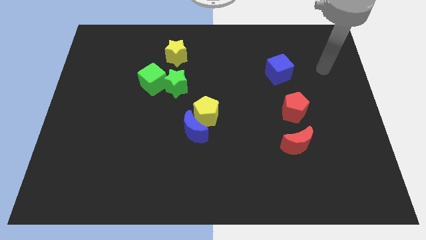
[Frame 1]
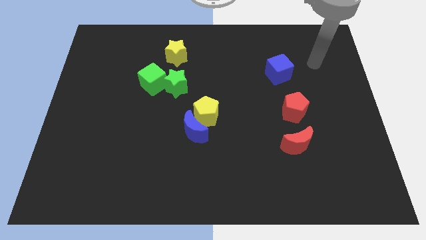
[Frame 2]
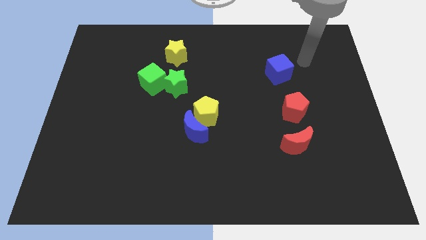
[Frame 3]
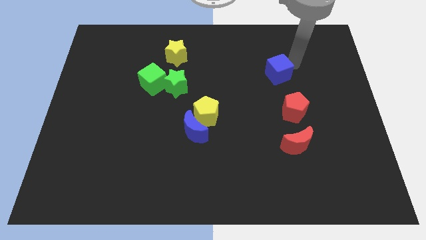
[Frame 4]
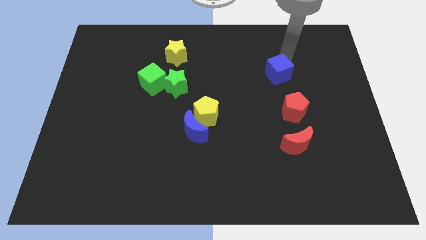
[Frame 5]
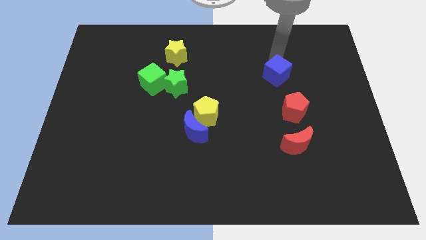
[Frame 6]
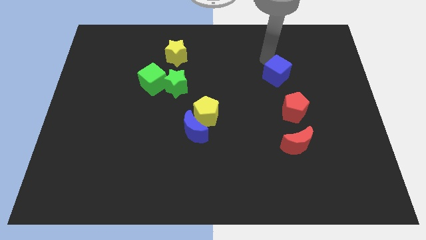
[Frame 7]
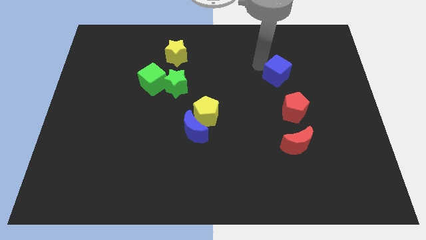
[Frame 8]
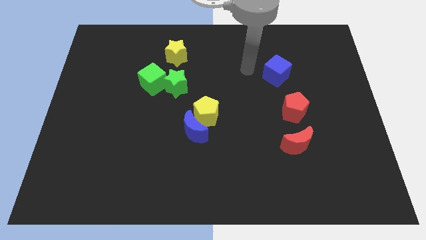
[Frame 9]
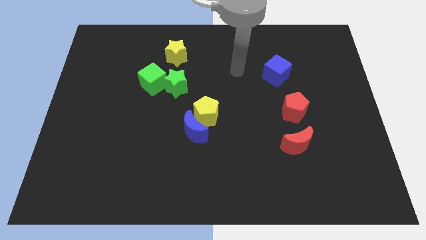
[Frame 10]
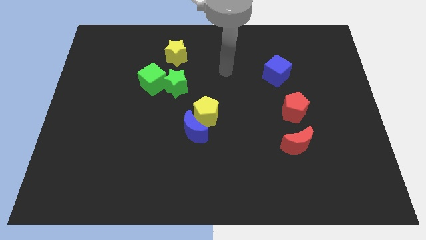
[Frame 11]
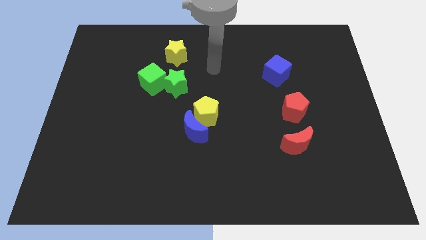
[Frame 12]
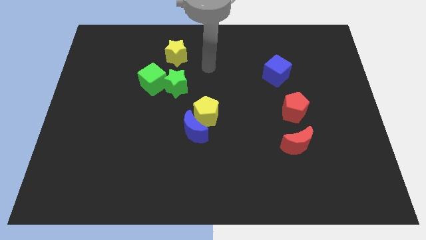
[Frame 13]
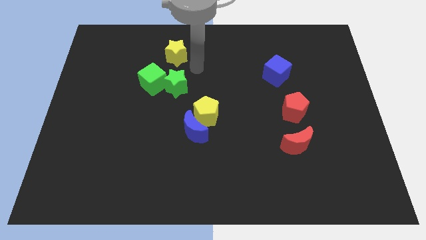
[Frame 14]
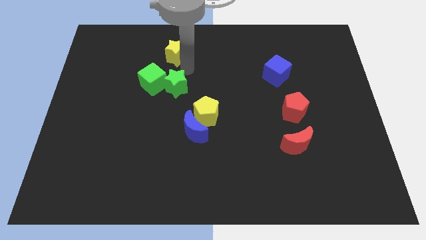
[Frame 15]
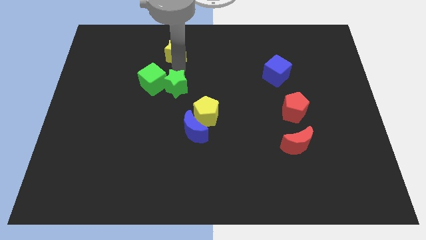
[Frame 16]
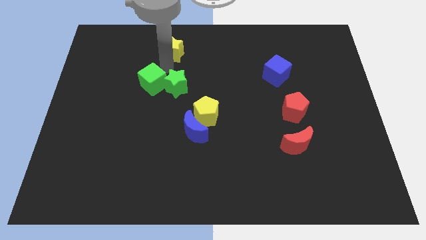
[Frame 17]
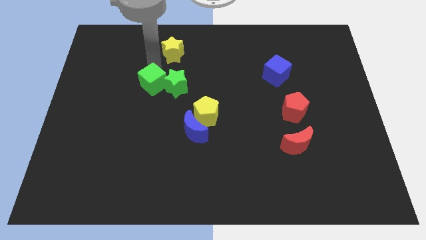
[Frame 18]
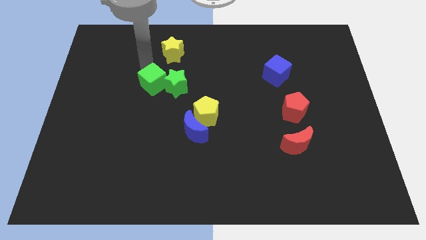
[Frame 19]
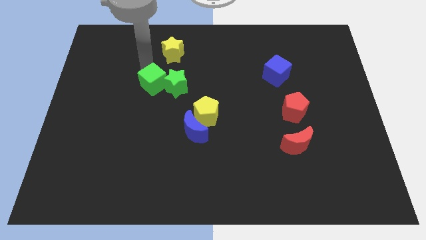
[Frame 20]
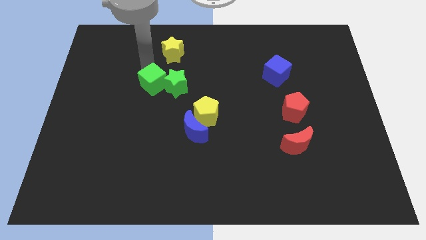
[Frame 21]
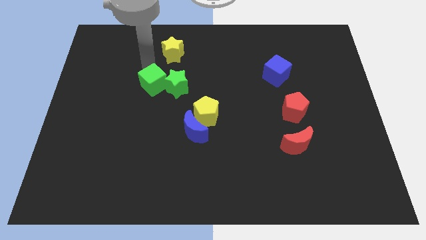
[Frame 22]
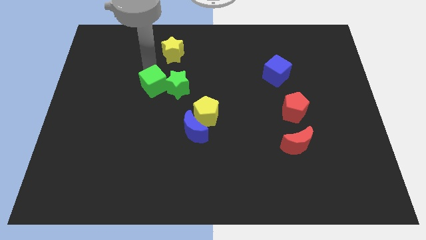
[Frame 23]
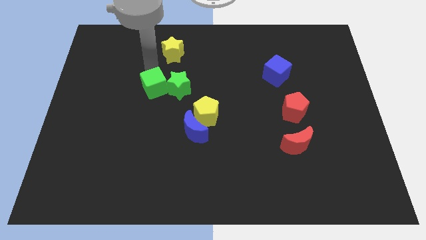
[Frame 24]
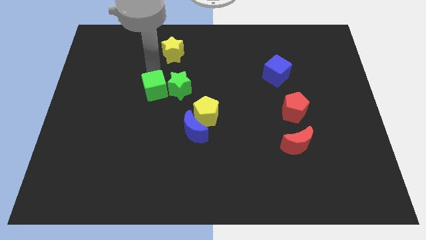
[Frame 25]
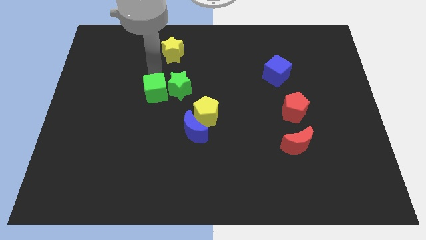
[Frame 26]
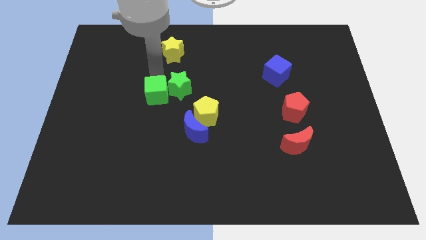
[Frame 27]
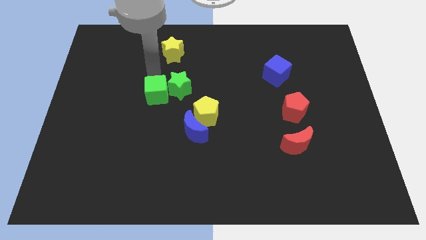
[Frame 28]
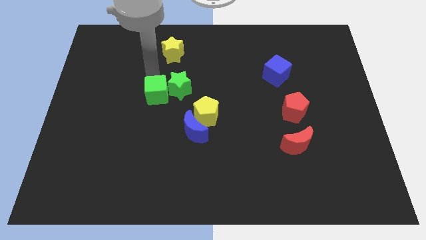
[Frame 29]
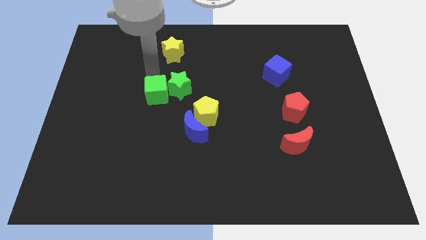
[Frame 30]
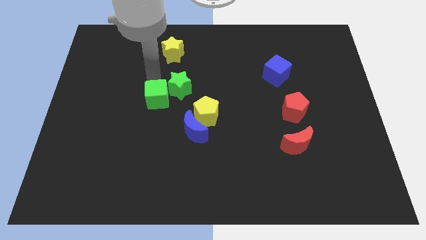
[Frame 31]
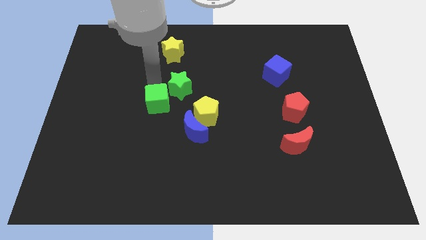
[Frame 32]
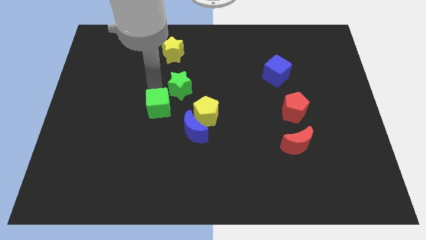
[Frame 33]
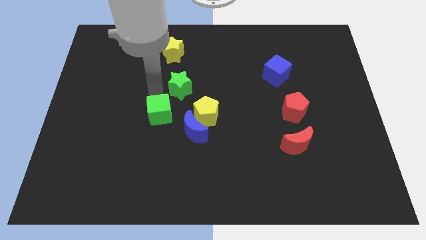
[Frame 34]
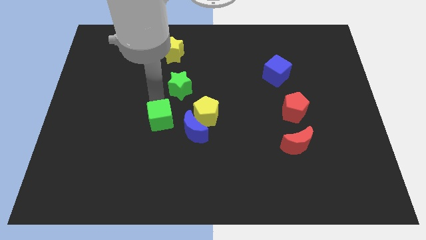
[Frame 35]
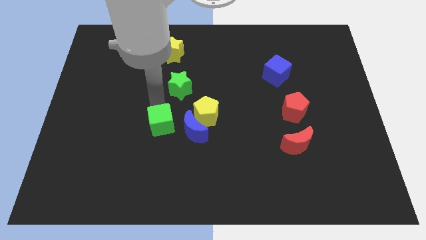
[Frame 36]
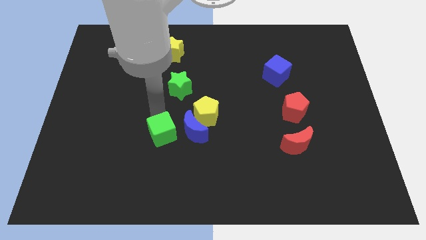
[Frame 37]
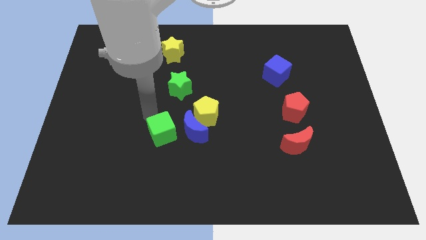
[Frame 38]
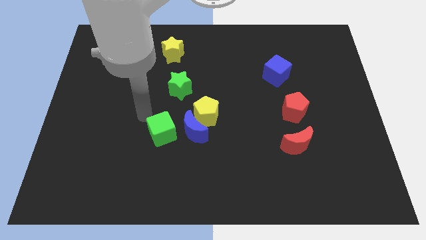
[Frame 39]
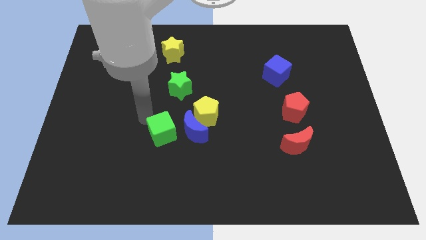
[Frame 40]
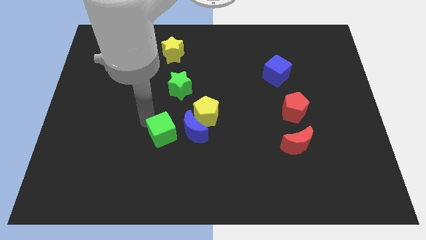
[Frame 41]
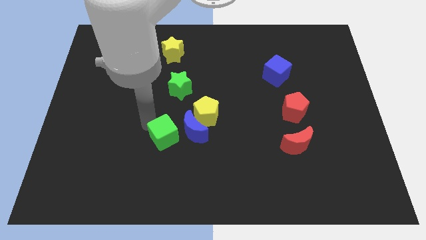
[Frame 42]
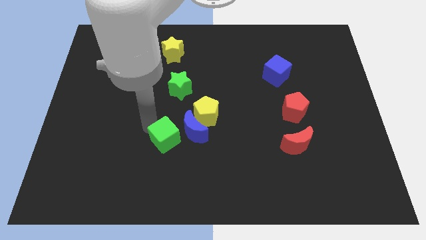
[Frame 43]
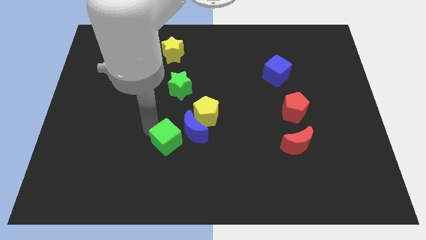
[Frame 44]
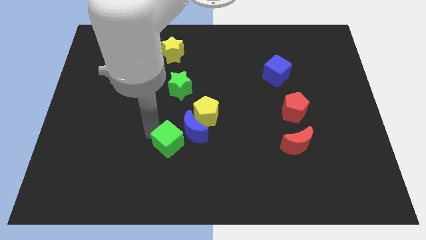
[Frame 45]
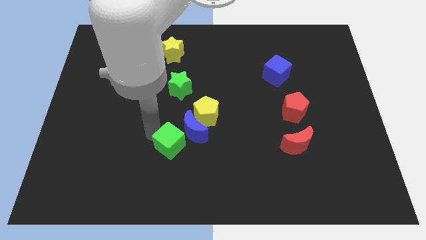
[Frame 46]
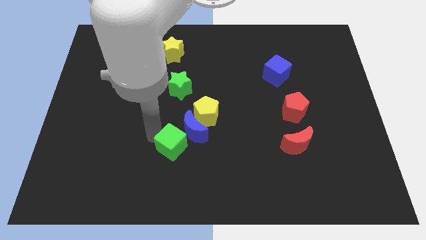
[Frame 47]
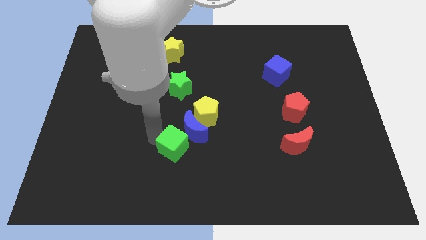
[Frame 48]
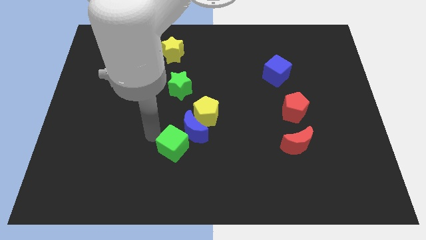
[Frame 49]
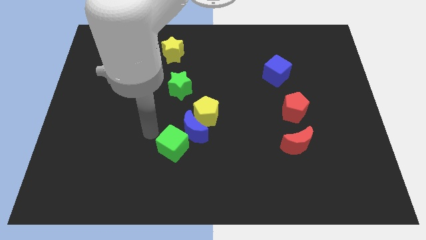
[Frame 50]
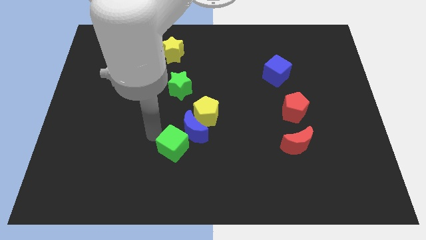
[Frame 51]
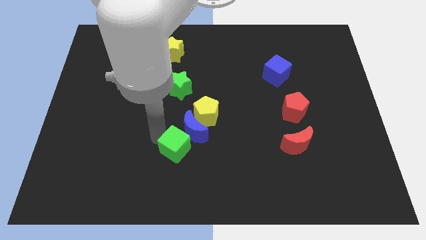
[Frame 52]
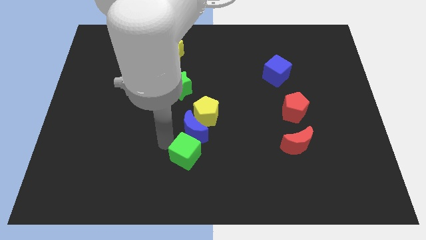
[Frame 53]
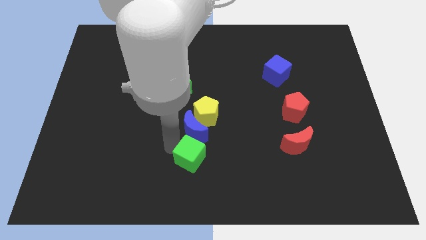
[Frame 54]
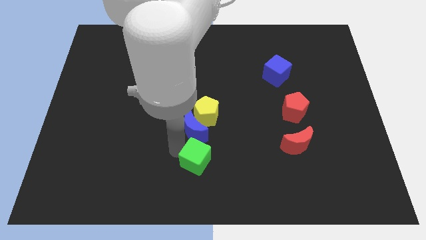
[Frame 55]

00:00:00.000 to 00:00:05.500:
push the green cube downwards and right

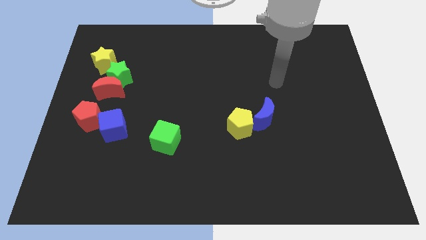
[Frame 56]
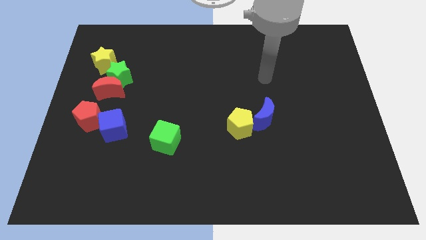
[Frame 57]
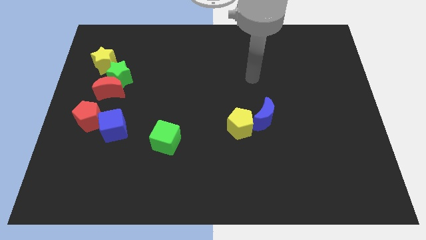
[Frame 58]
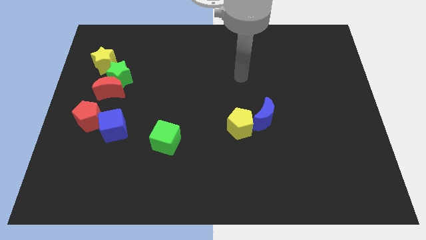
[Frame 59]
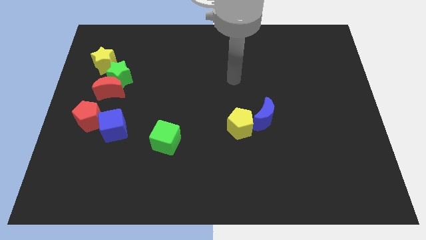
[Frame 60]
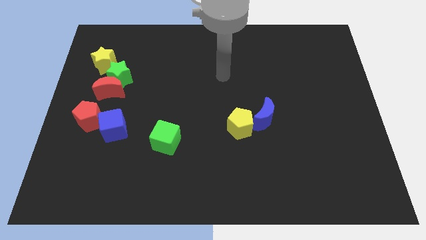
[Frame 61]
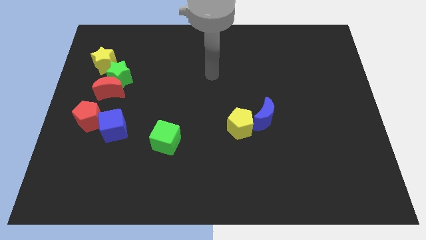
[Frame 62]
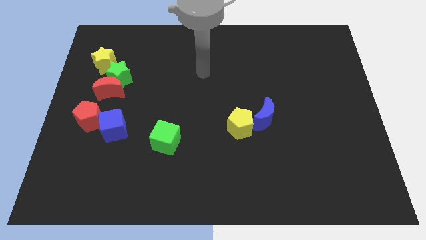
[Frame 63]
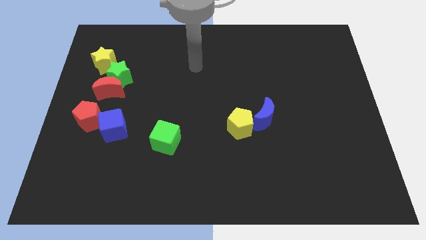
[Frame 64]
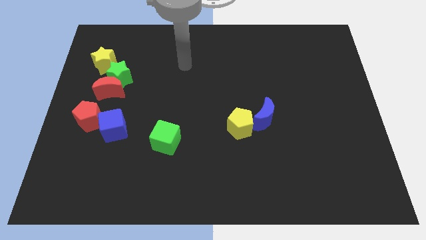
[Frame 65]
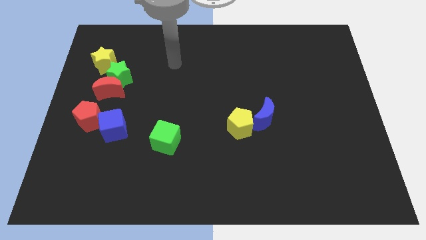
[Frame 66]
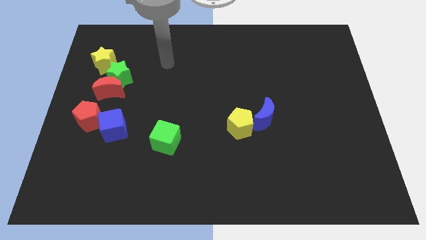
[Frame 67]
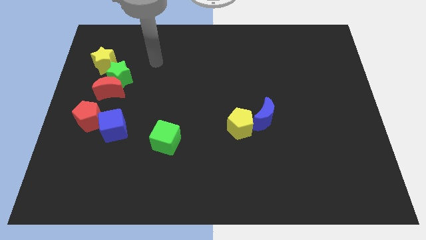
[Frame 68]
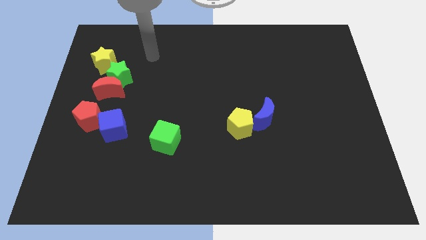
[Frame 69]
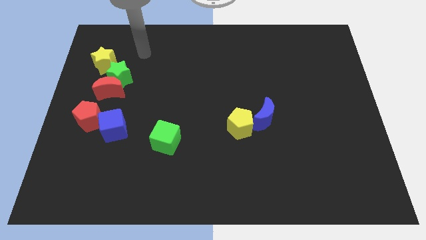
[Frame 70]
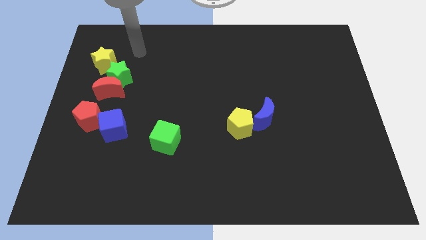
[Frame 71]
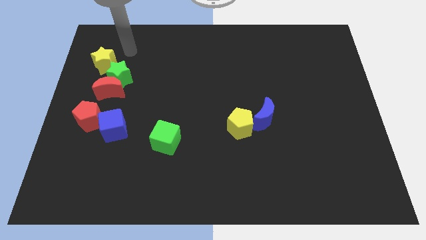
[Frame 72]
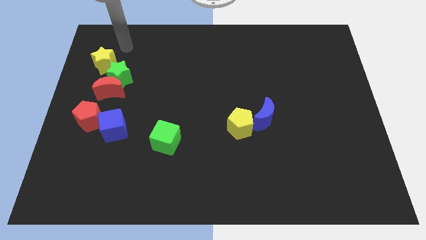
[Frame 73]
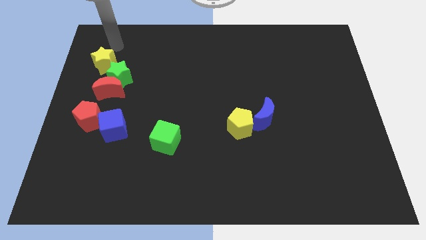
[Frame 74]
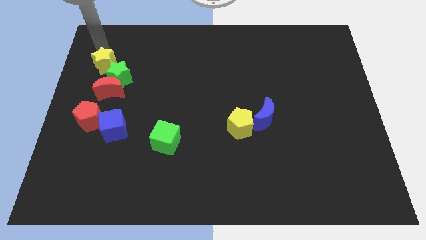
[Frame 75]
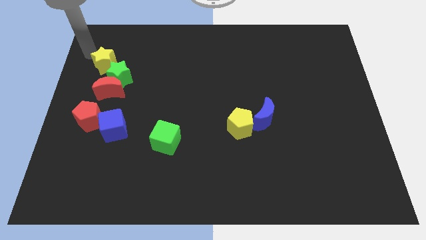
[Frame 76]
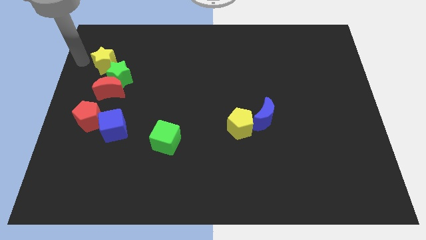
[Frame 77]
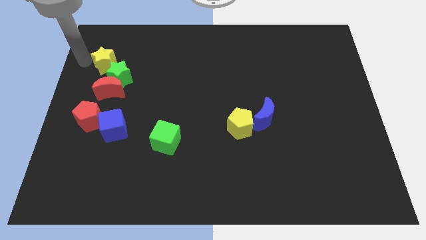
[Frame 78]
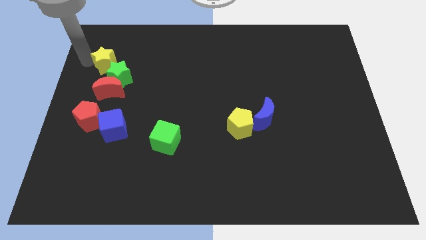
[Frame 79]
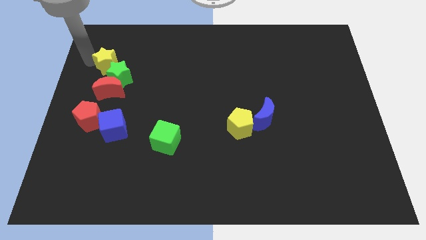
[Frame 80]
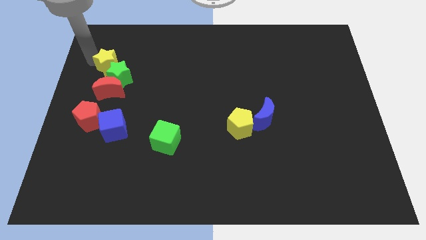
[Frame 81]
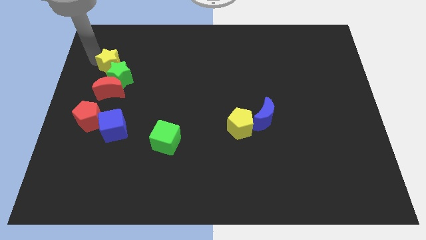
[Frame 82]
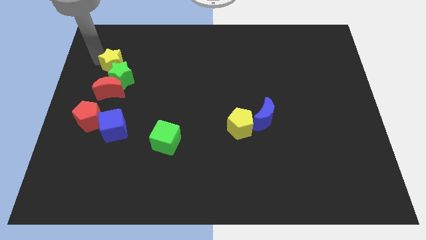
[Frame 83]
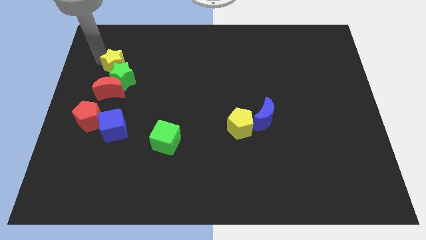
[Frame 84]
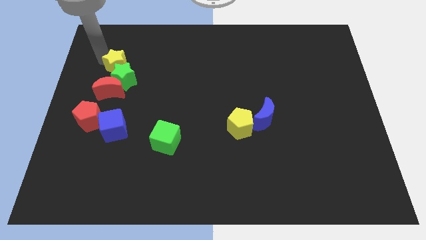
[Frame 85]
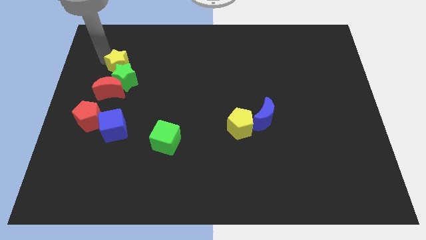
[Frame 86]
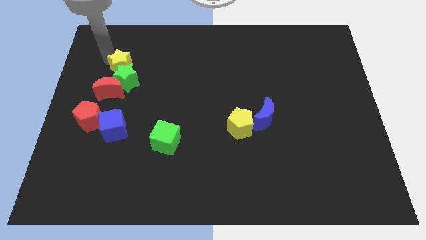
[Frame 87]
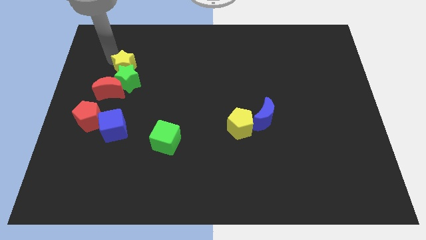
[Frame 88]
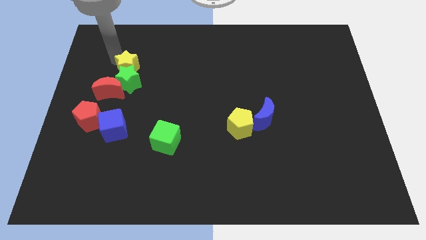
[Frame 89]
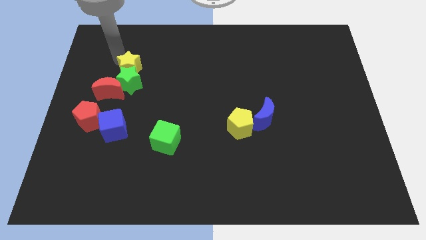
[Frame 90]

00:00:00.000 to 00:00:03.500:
slide the yellow star somewhat right
